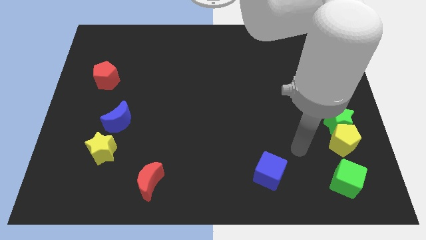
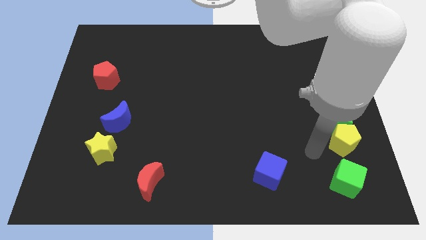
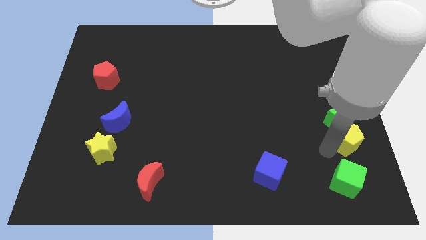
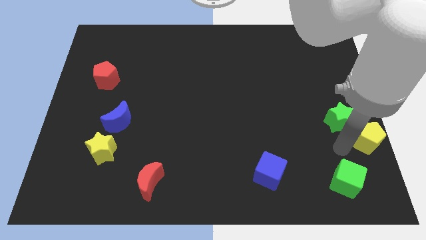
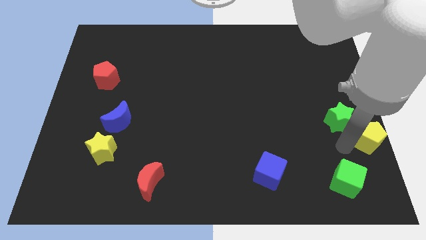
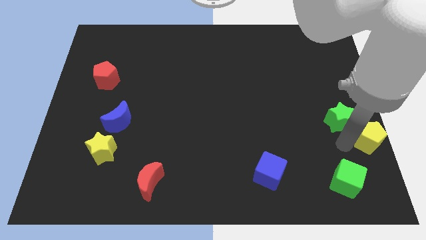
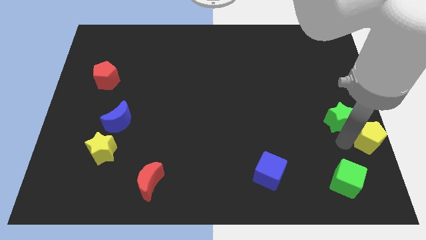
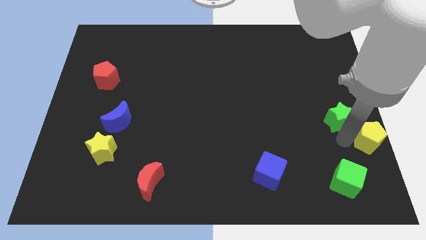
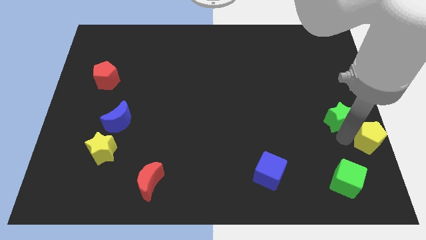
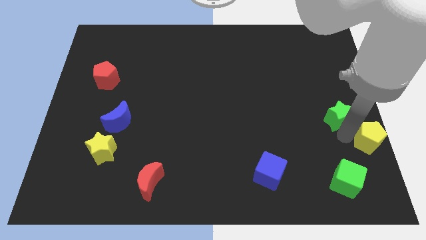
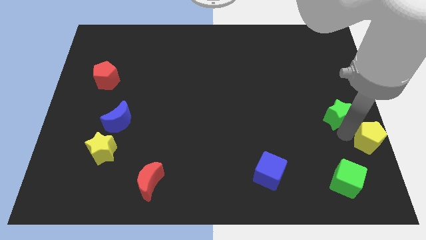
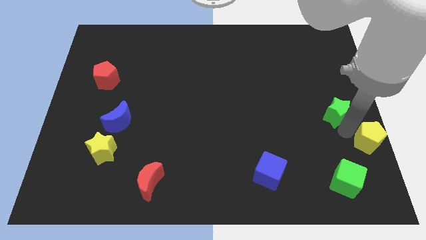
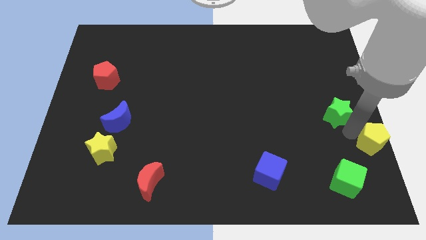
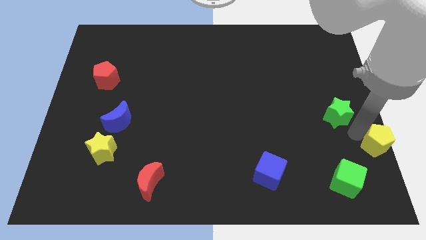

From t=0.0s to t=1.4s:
separate the green star from the yellow pentagon

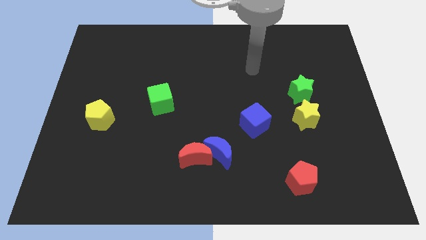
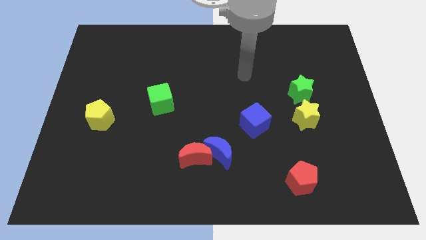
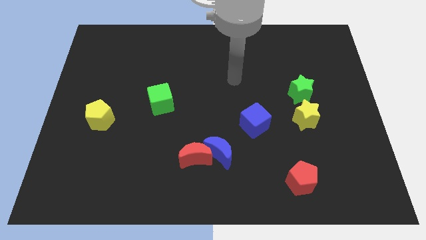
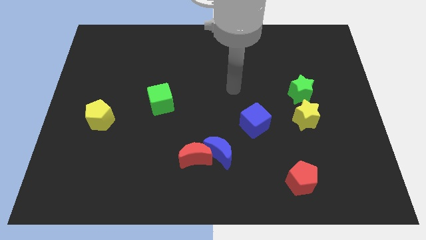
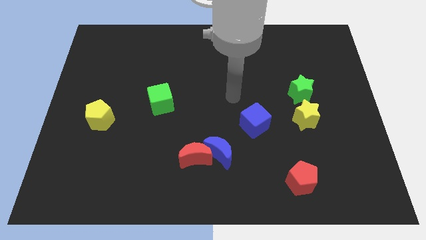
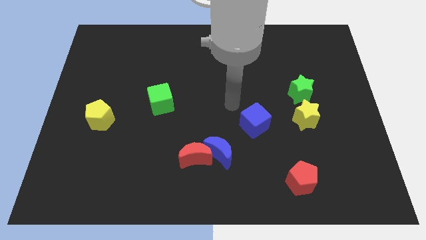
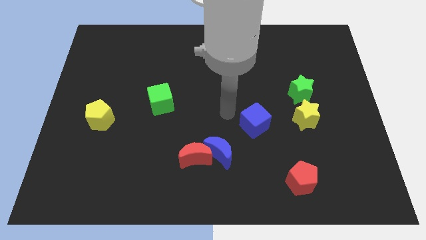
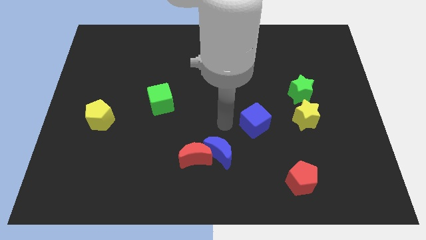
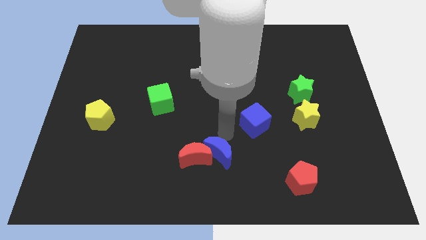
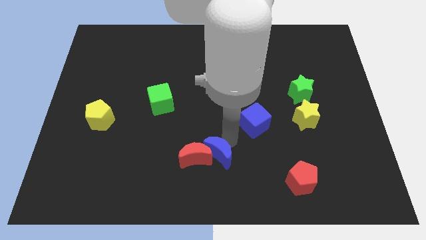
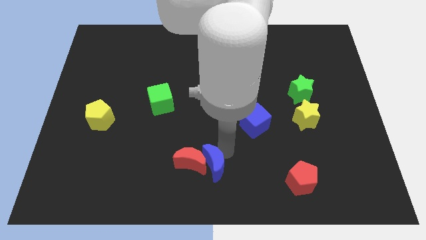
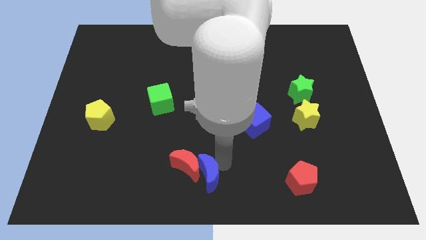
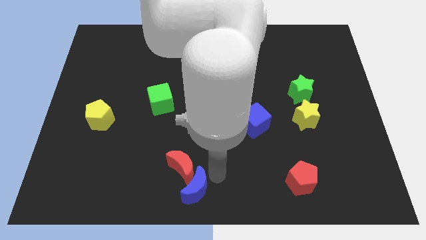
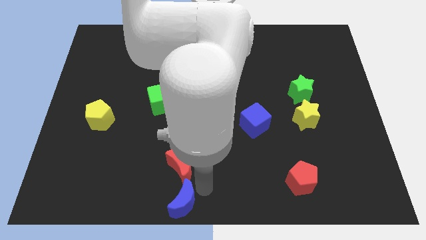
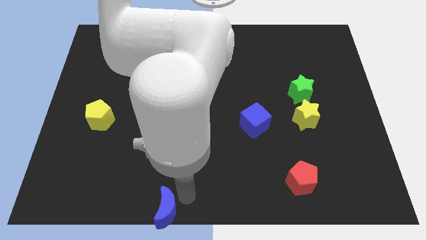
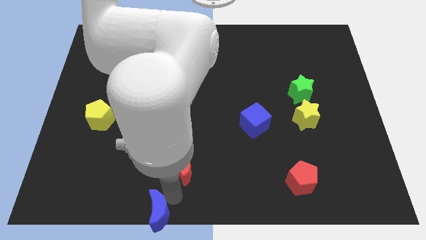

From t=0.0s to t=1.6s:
pull the red moon apart from the blue moon

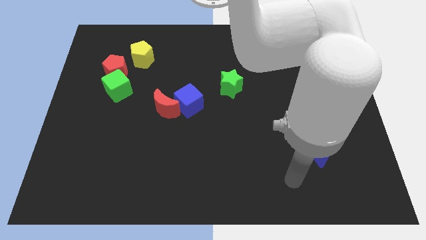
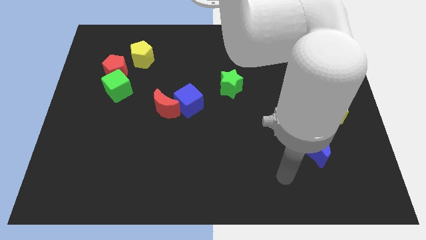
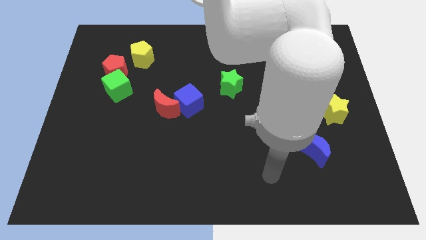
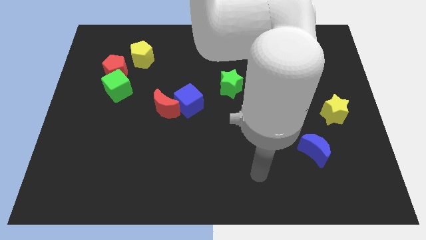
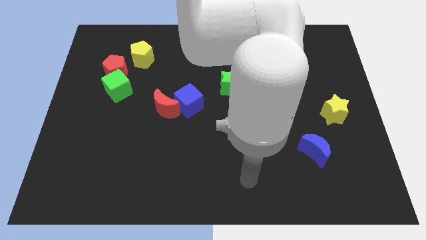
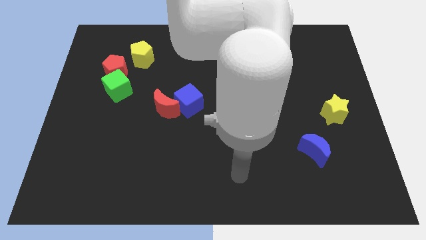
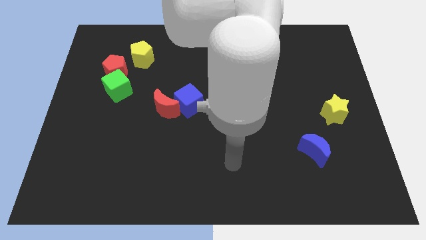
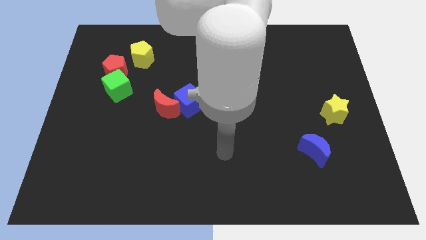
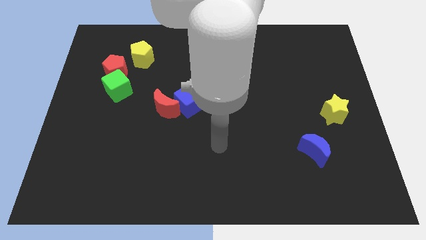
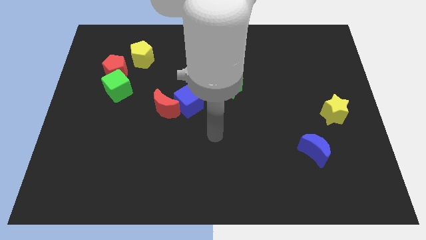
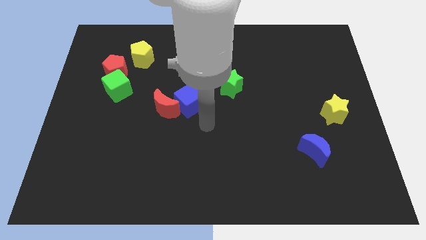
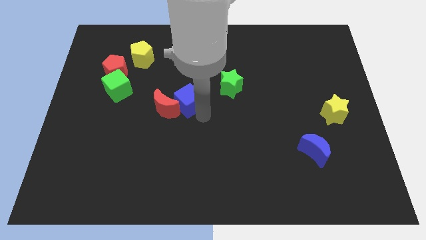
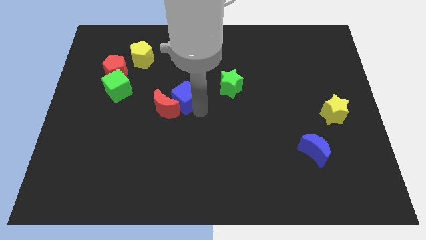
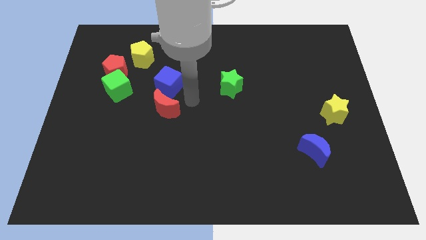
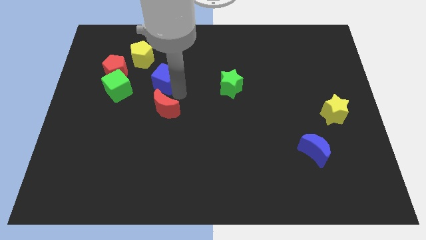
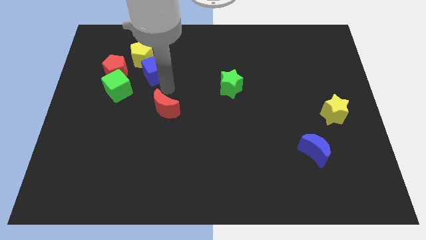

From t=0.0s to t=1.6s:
pull the red moon apart from the blue cube

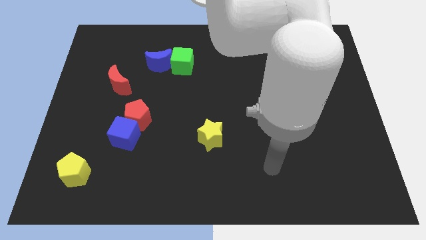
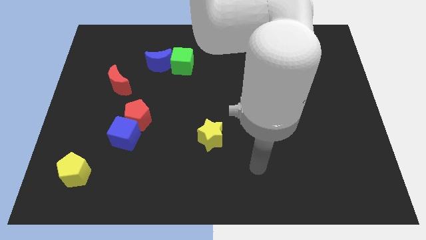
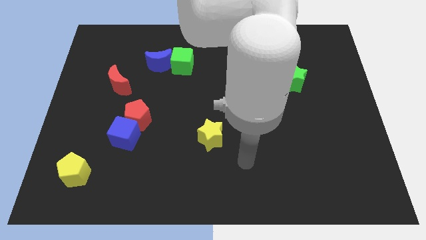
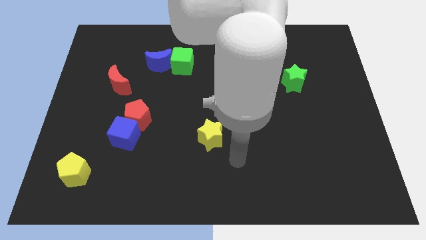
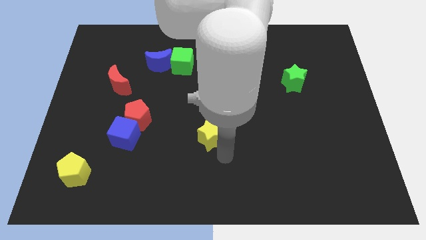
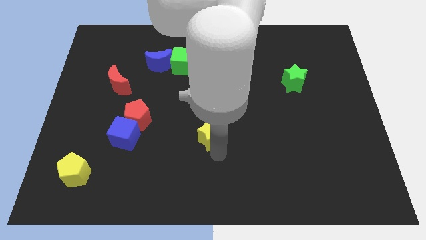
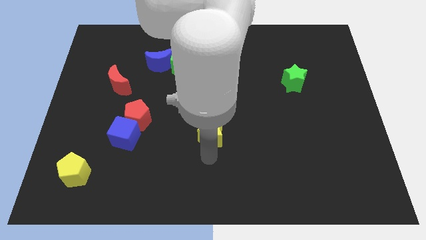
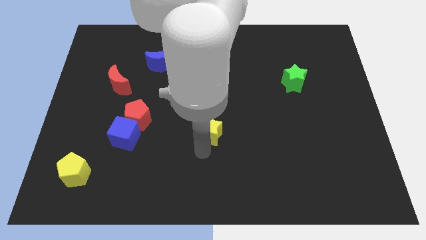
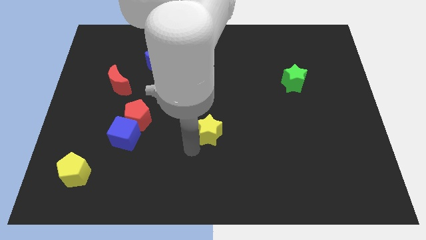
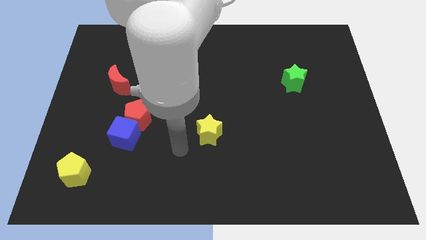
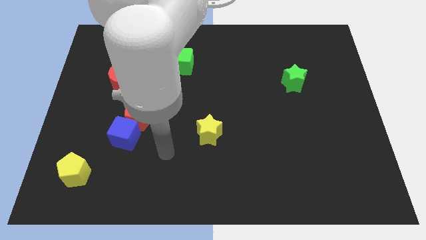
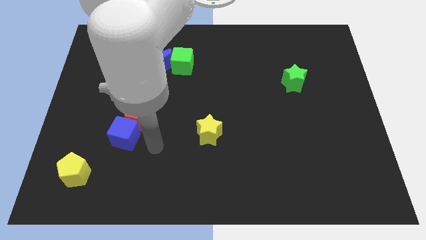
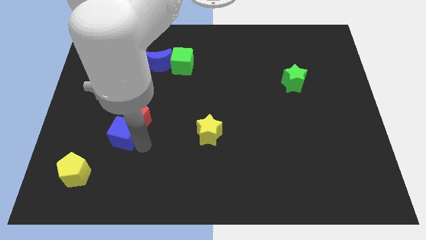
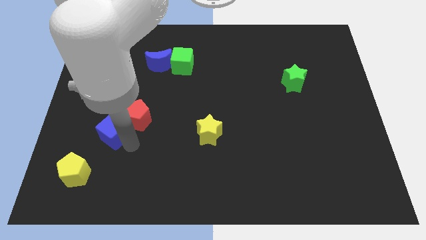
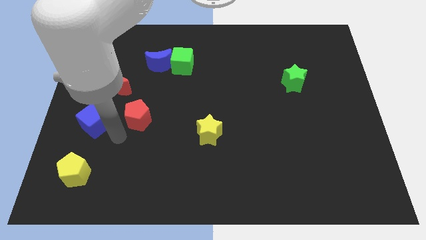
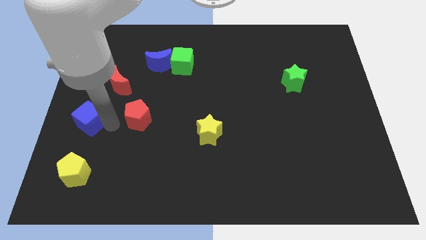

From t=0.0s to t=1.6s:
pull the red pentagon apart from the blue cube

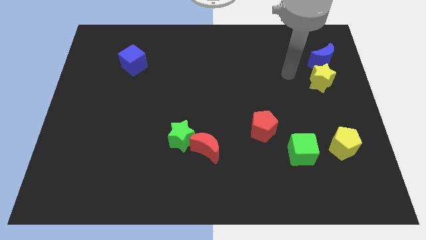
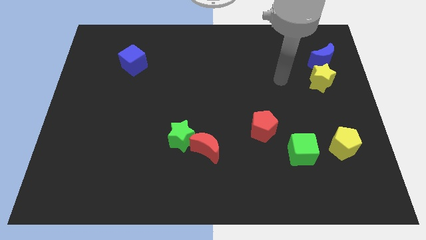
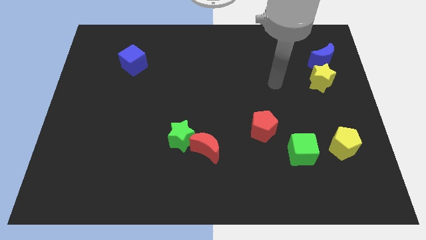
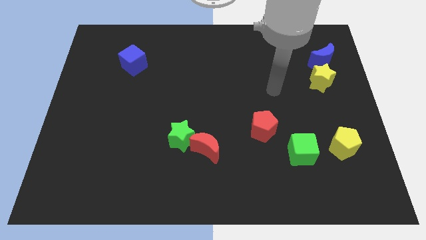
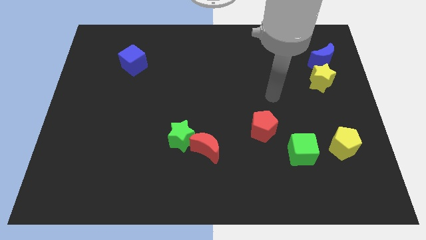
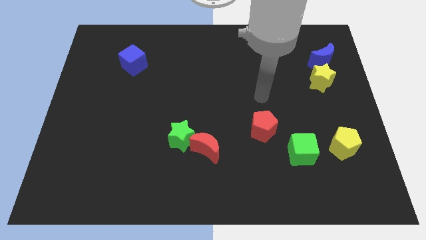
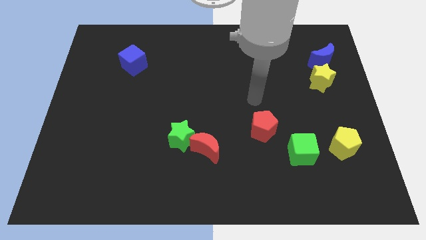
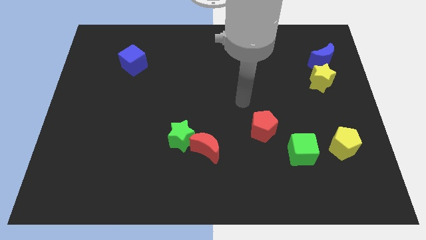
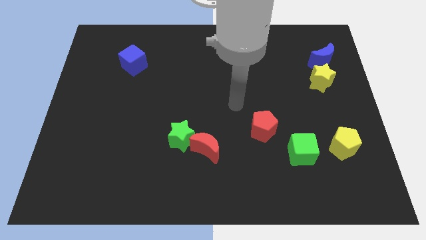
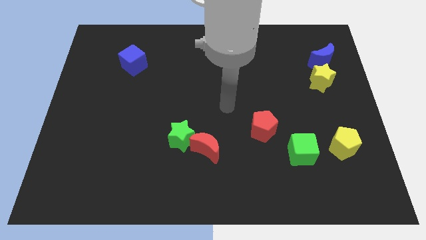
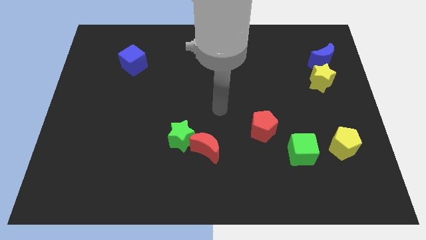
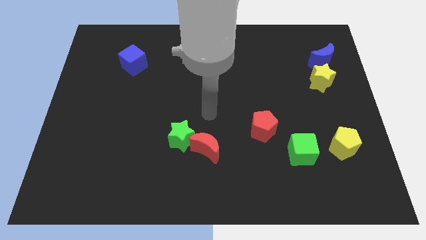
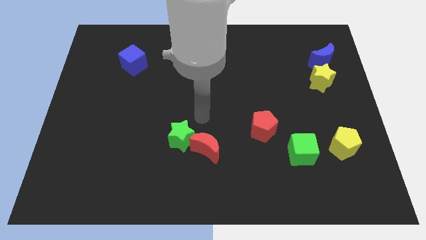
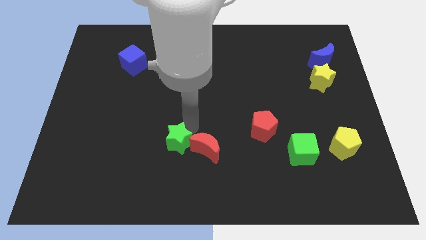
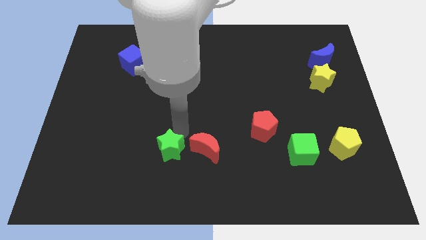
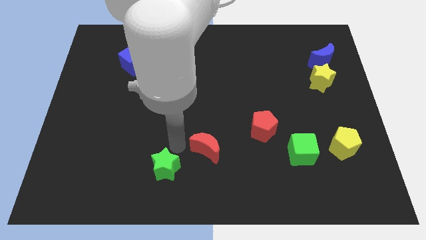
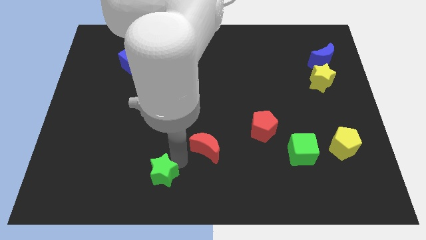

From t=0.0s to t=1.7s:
move the red moon away from the green star

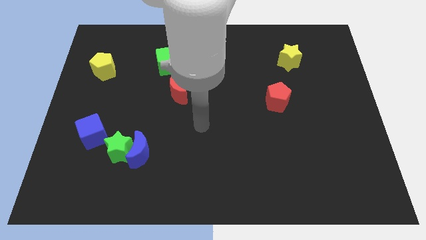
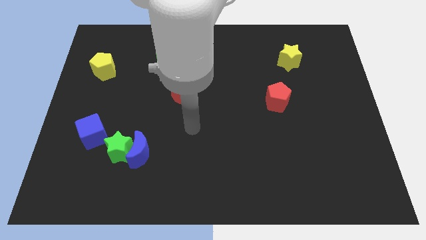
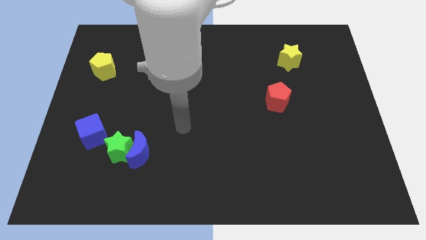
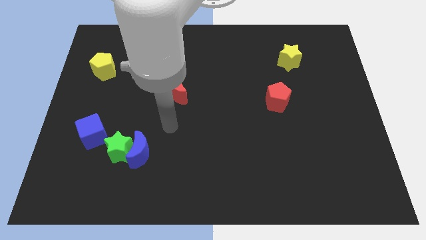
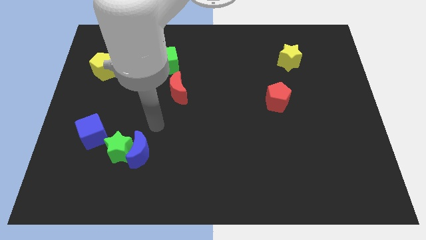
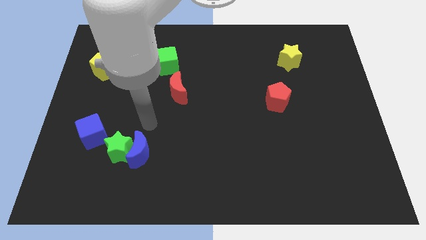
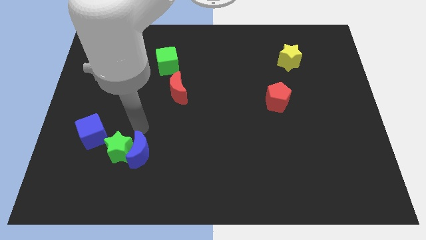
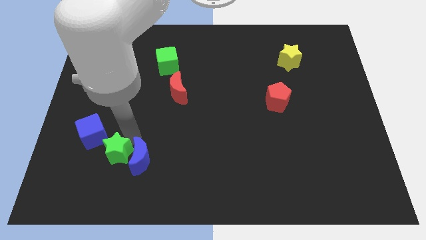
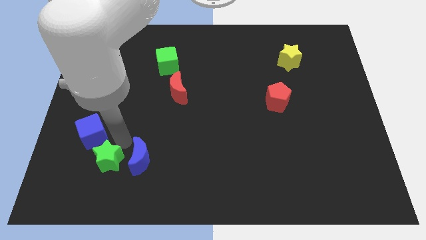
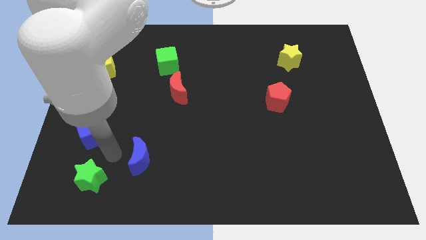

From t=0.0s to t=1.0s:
move the blue moon away from the green star

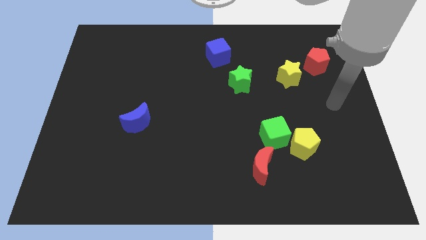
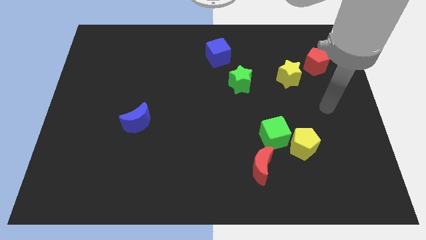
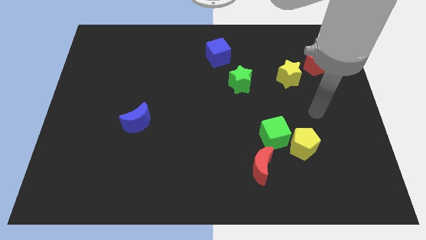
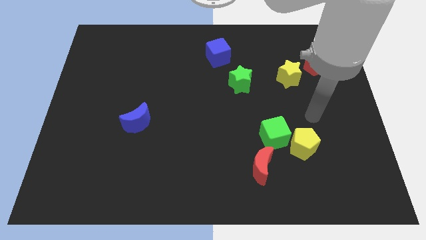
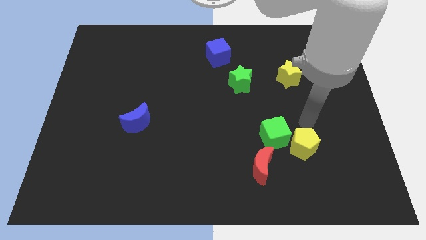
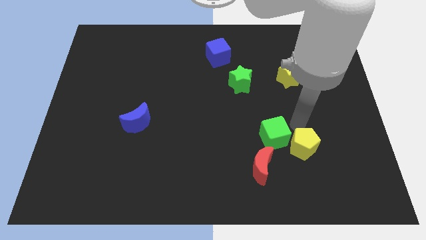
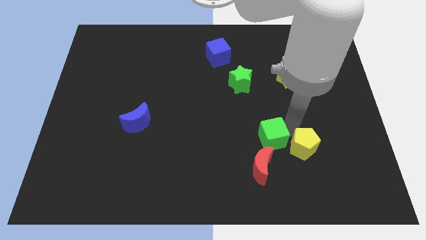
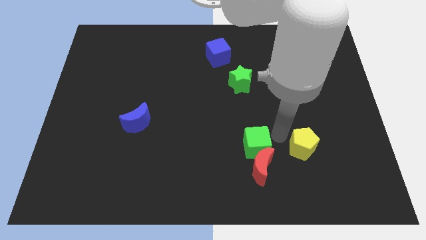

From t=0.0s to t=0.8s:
pull the yellow pentagon apart from the green cube
